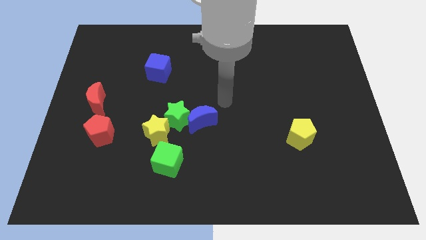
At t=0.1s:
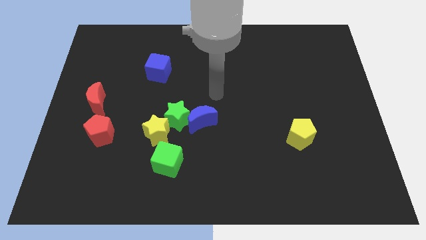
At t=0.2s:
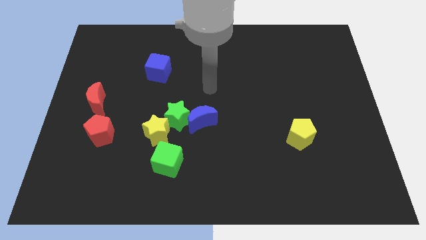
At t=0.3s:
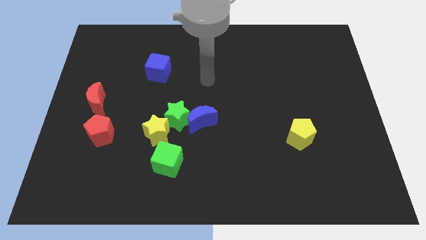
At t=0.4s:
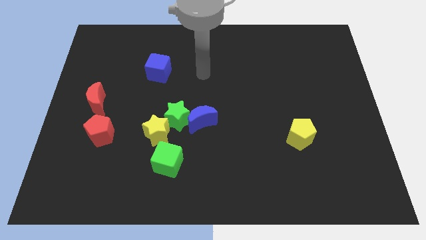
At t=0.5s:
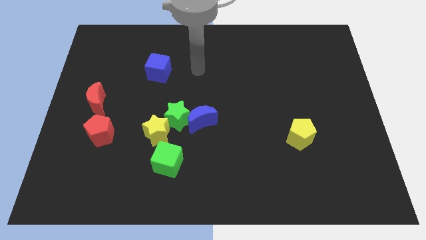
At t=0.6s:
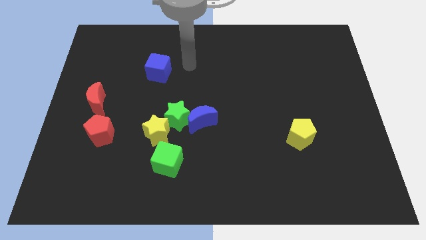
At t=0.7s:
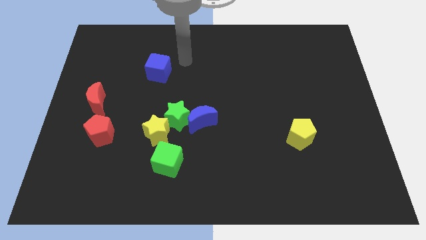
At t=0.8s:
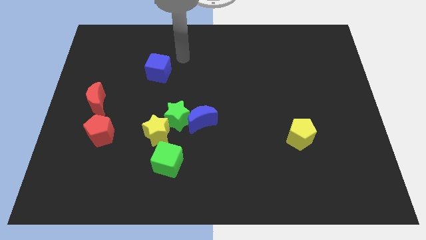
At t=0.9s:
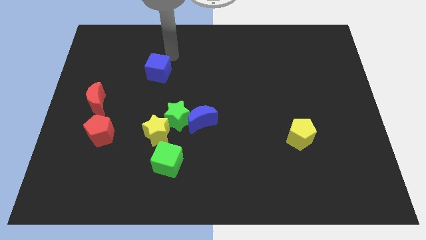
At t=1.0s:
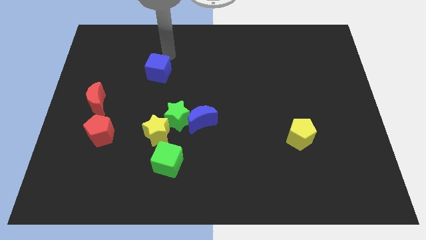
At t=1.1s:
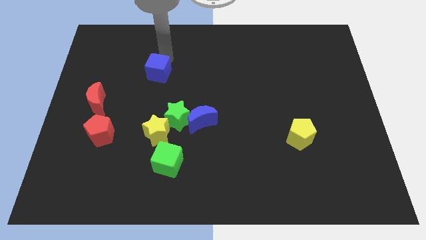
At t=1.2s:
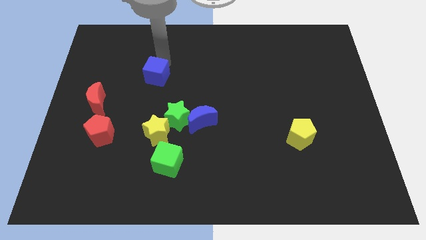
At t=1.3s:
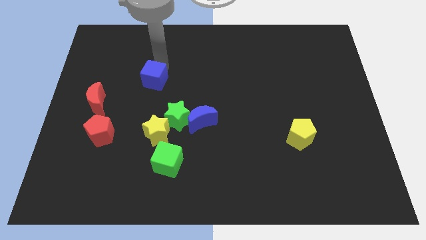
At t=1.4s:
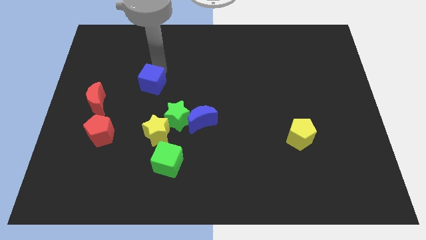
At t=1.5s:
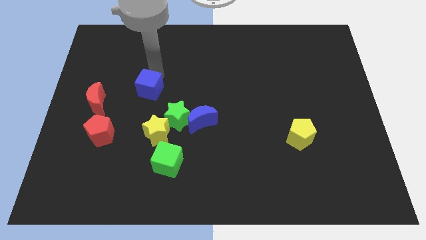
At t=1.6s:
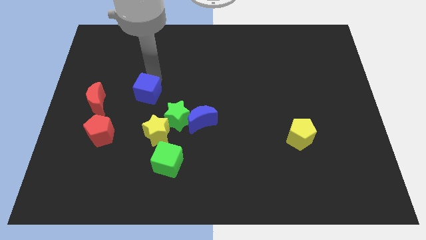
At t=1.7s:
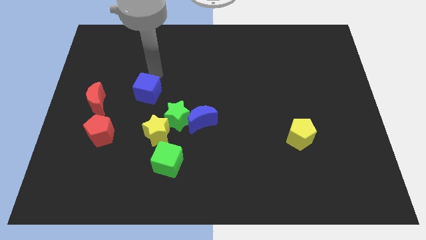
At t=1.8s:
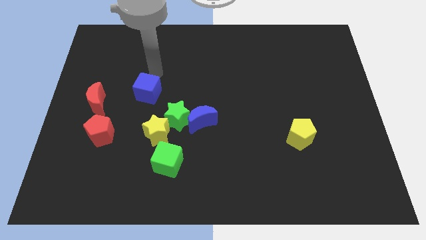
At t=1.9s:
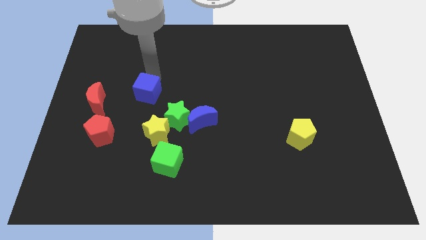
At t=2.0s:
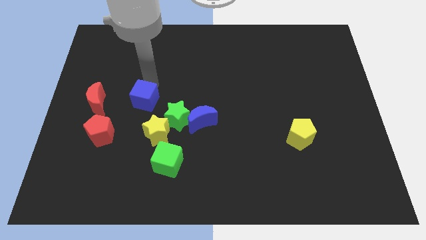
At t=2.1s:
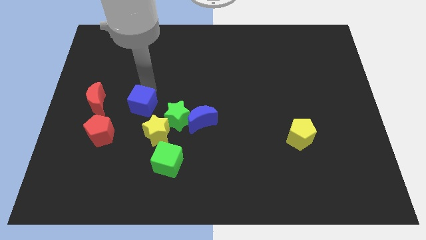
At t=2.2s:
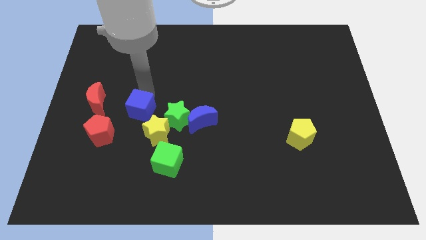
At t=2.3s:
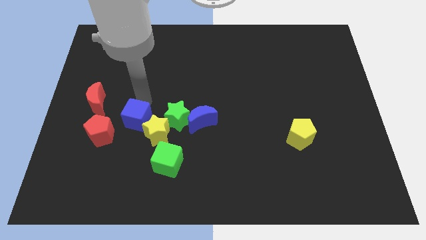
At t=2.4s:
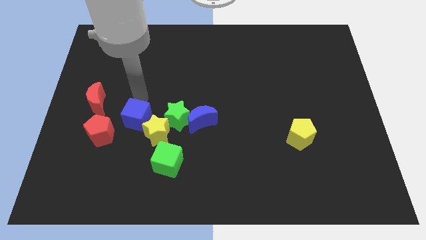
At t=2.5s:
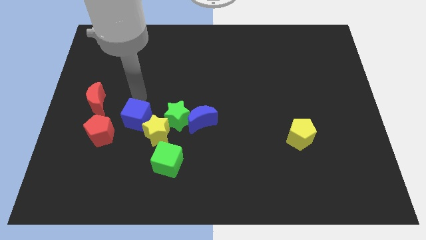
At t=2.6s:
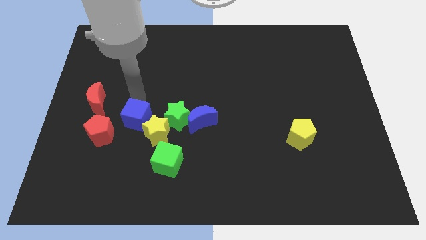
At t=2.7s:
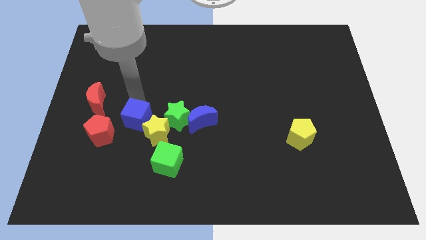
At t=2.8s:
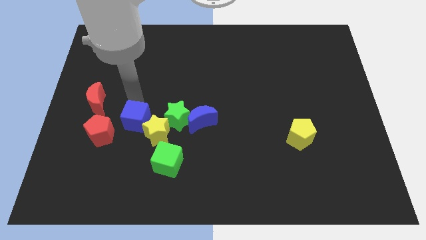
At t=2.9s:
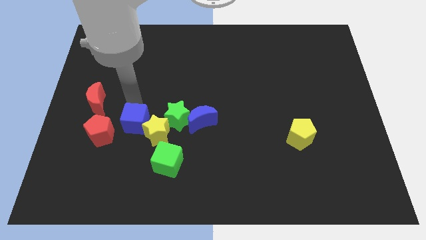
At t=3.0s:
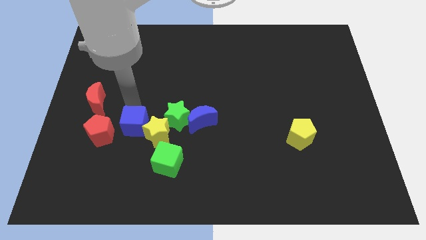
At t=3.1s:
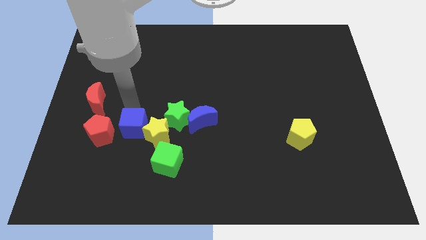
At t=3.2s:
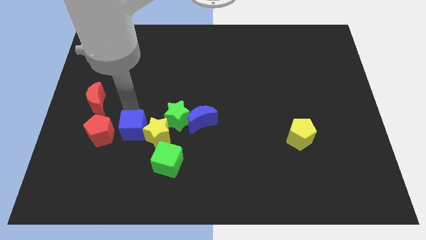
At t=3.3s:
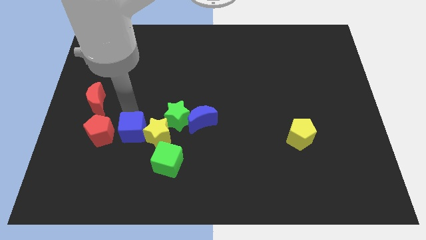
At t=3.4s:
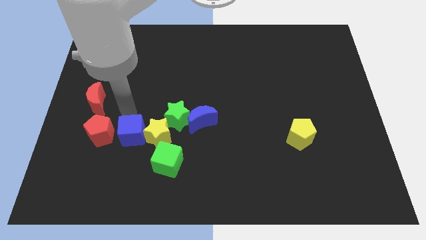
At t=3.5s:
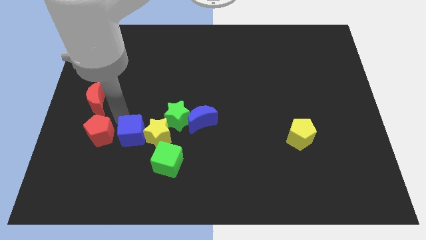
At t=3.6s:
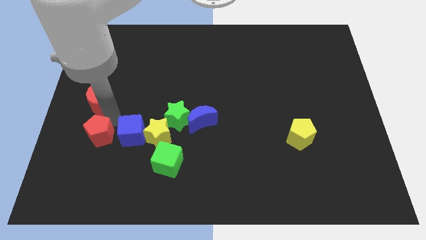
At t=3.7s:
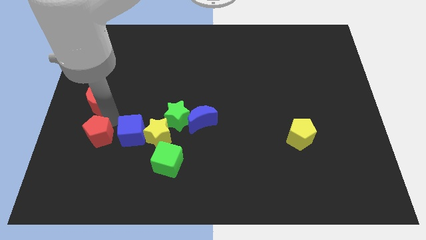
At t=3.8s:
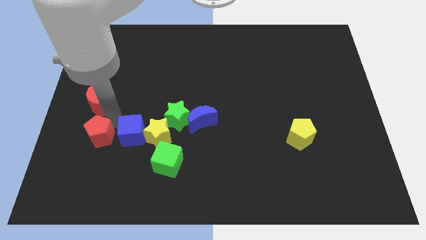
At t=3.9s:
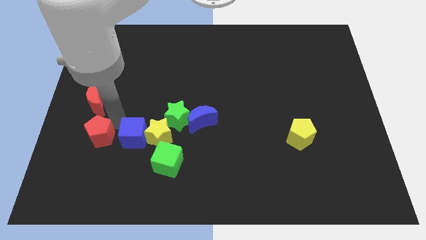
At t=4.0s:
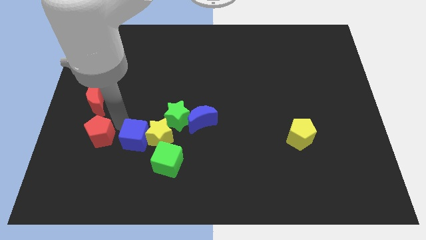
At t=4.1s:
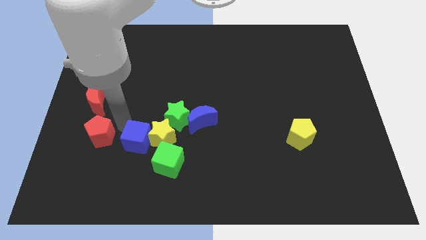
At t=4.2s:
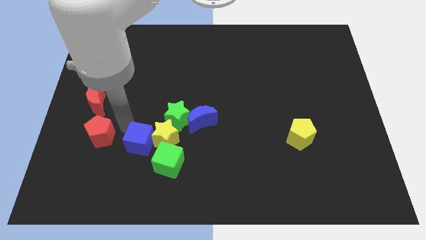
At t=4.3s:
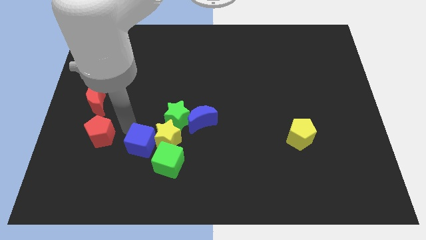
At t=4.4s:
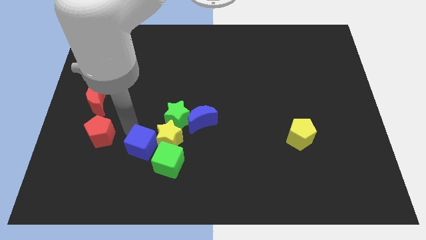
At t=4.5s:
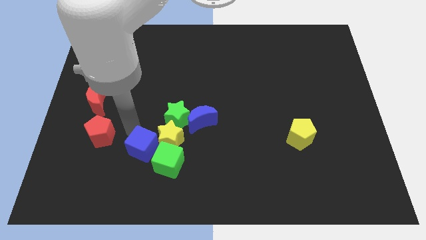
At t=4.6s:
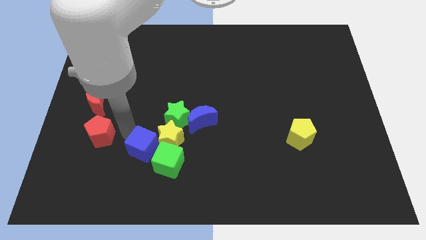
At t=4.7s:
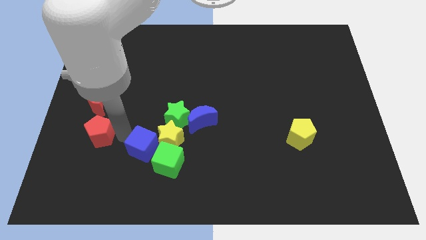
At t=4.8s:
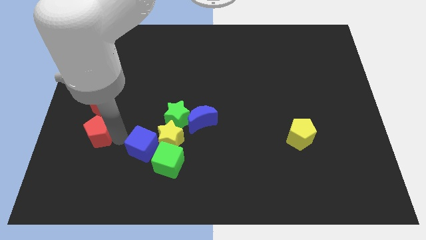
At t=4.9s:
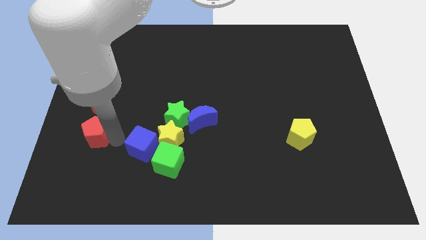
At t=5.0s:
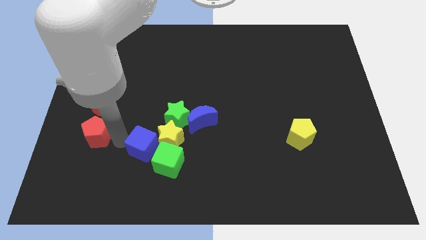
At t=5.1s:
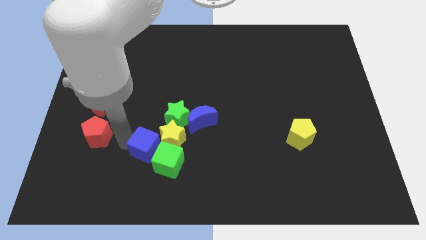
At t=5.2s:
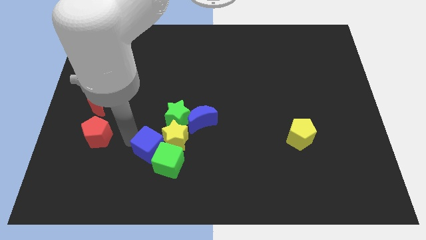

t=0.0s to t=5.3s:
move the blue cube to the green cube

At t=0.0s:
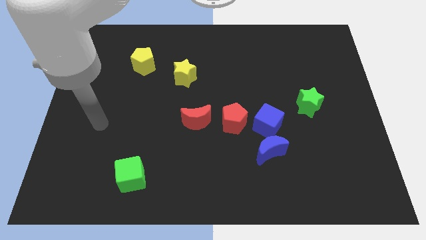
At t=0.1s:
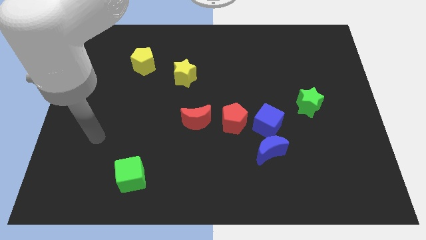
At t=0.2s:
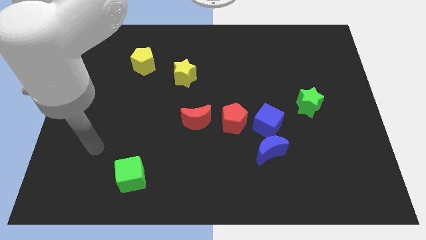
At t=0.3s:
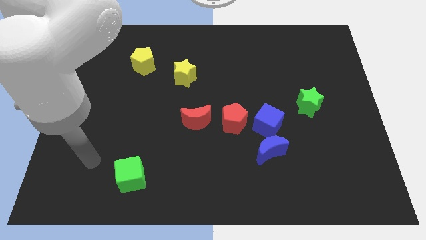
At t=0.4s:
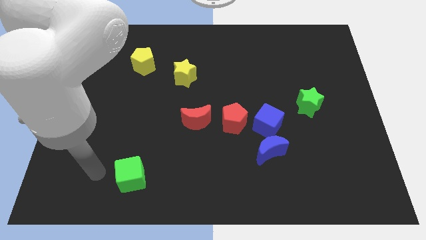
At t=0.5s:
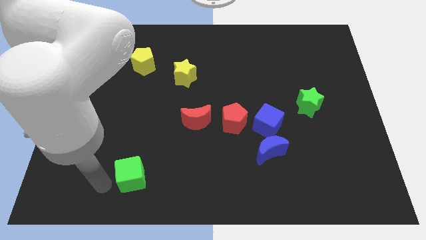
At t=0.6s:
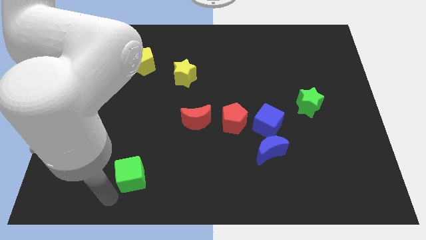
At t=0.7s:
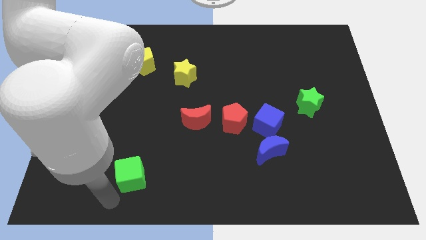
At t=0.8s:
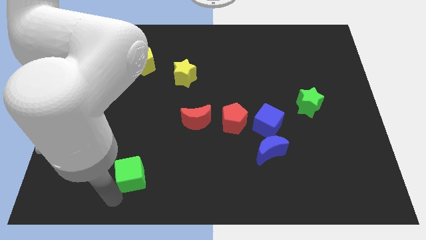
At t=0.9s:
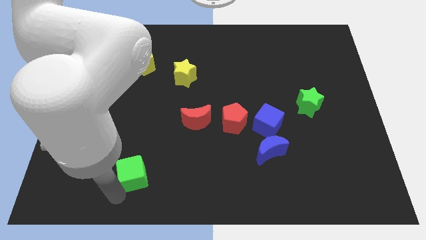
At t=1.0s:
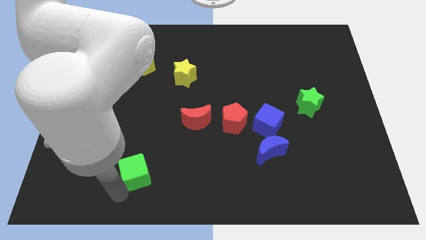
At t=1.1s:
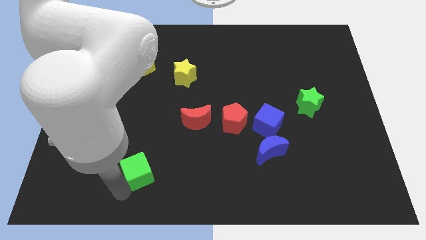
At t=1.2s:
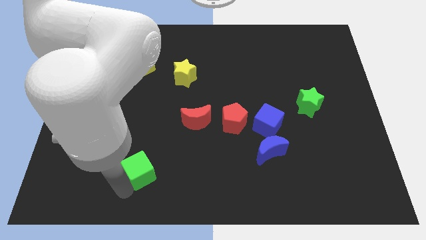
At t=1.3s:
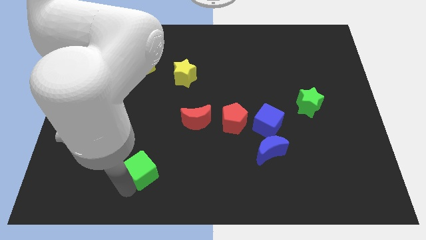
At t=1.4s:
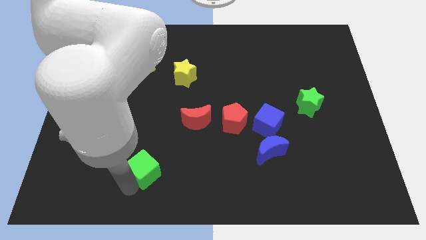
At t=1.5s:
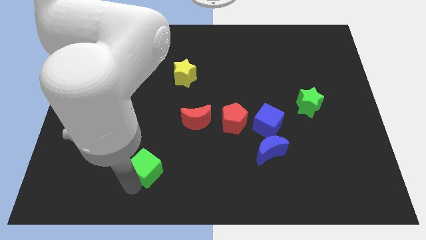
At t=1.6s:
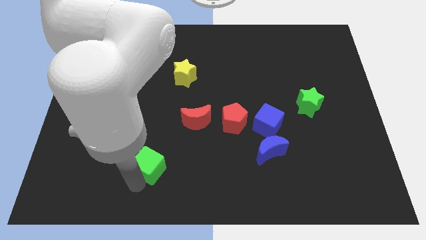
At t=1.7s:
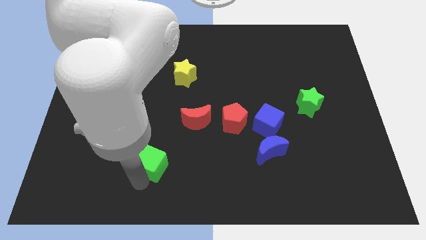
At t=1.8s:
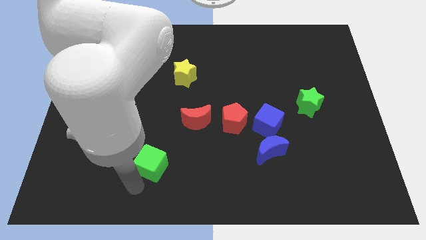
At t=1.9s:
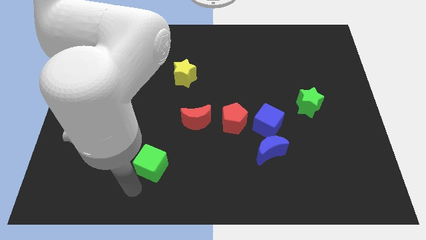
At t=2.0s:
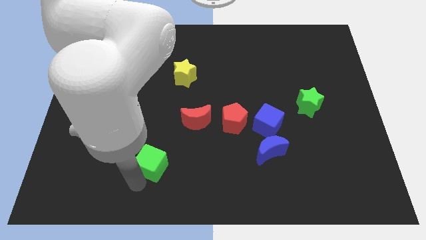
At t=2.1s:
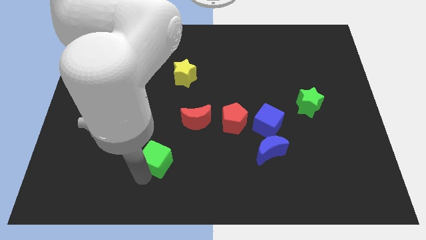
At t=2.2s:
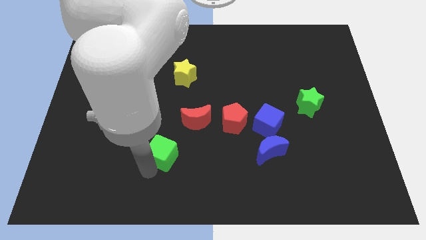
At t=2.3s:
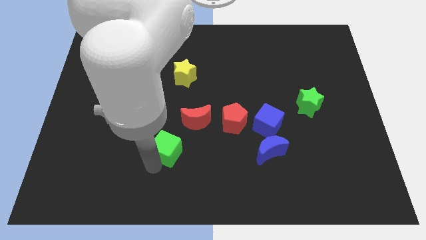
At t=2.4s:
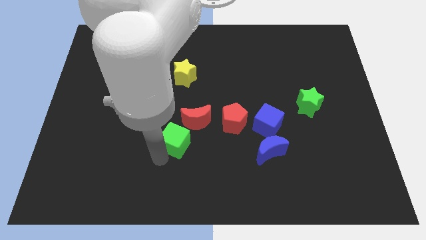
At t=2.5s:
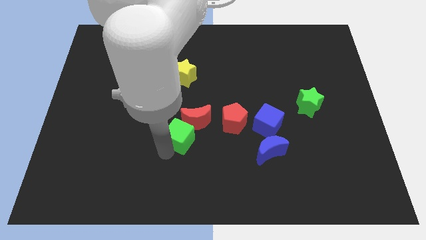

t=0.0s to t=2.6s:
slide the green cube to the red moon
